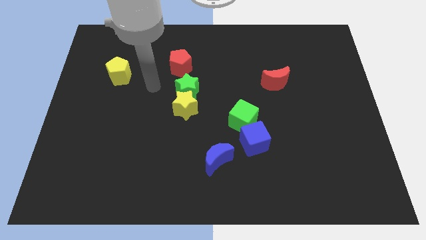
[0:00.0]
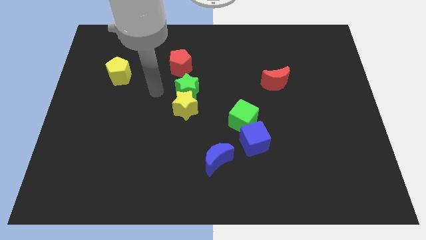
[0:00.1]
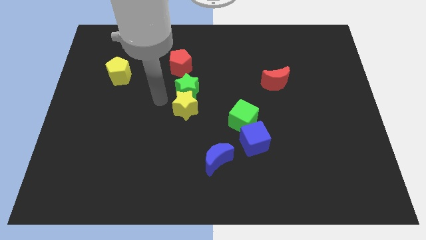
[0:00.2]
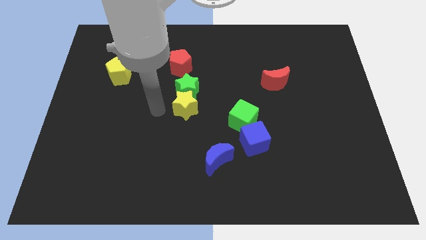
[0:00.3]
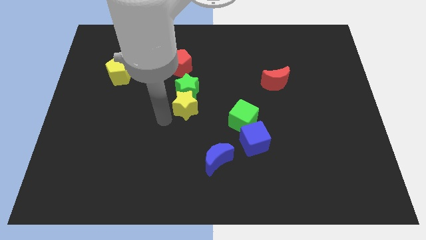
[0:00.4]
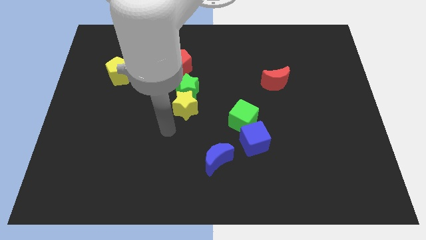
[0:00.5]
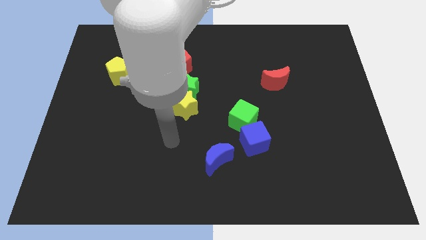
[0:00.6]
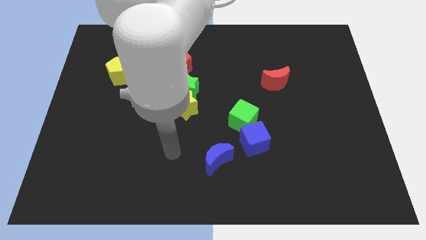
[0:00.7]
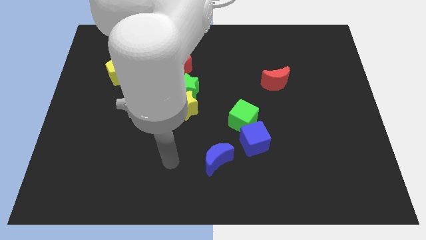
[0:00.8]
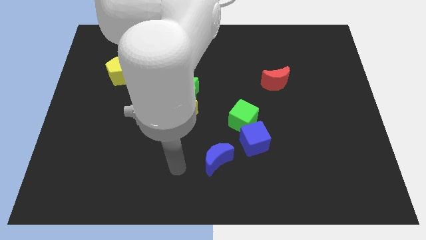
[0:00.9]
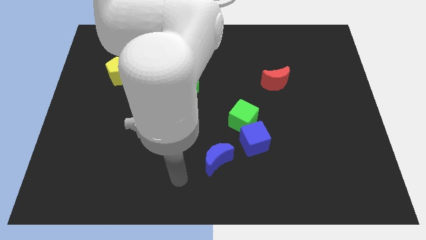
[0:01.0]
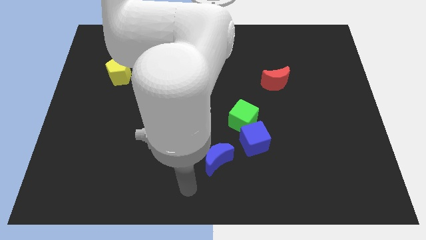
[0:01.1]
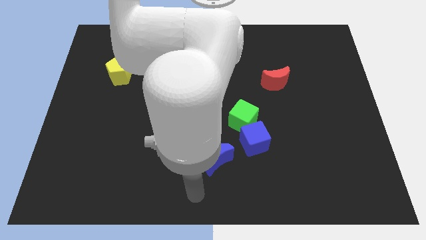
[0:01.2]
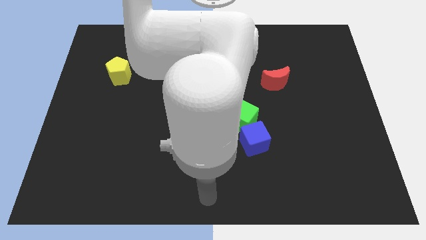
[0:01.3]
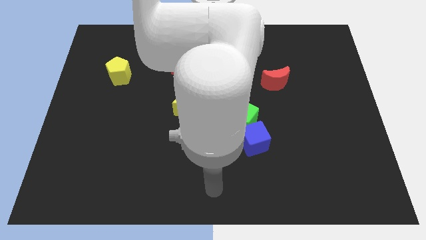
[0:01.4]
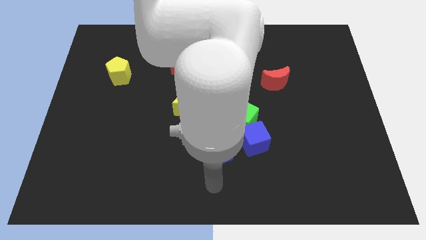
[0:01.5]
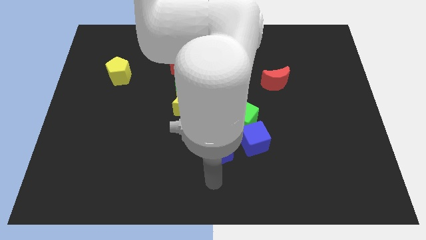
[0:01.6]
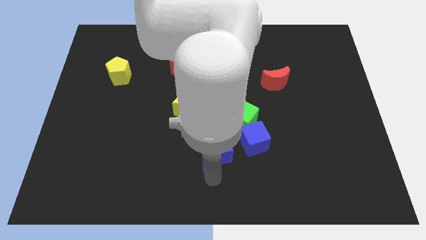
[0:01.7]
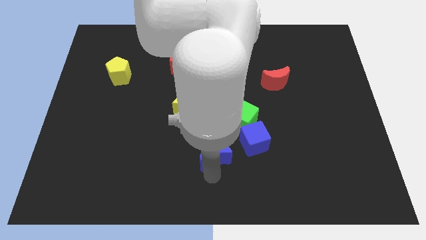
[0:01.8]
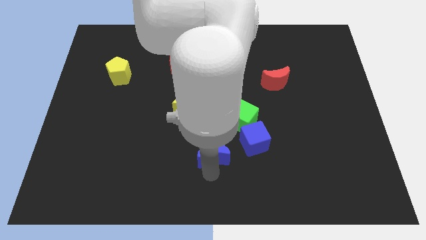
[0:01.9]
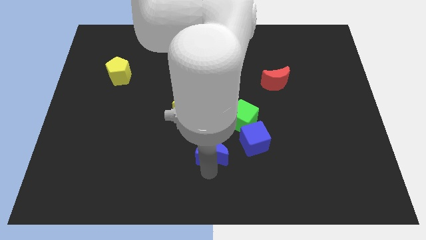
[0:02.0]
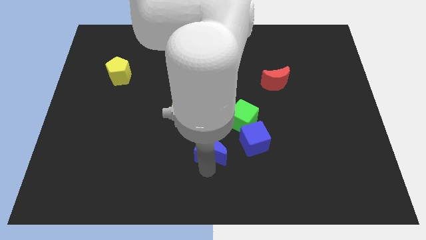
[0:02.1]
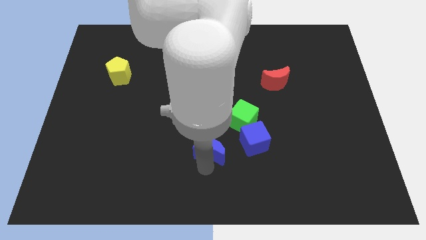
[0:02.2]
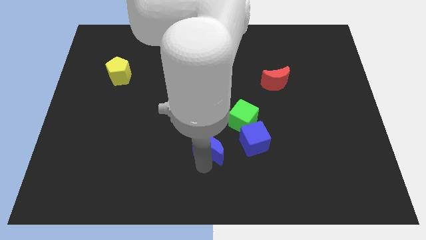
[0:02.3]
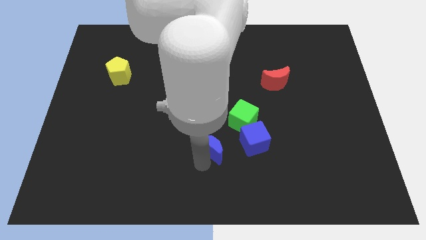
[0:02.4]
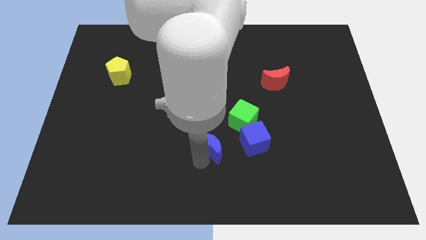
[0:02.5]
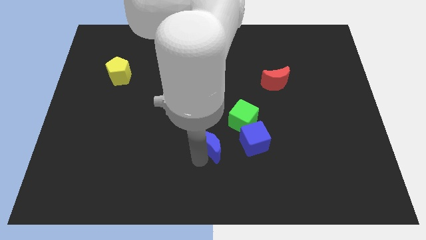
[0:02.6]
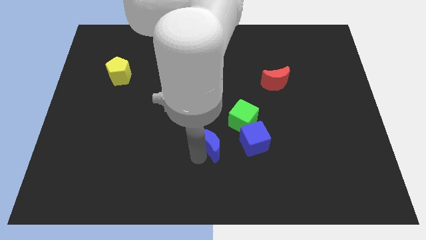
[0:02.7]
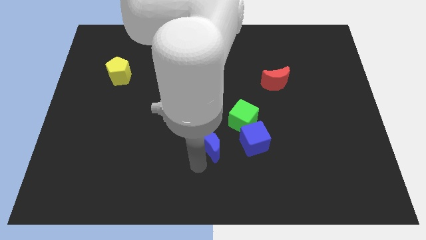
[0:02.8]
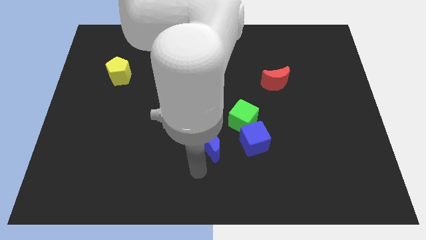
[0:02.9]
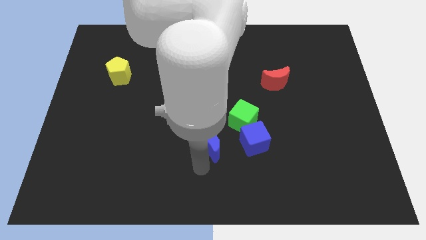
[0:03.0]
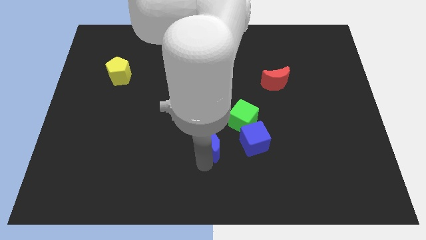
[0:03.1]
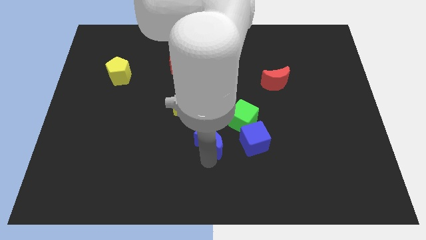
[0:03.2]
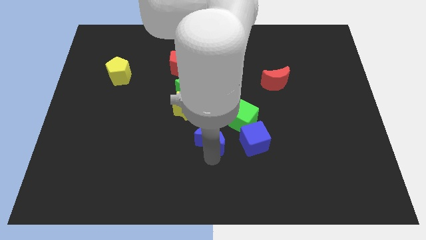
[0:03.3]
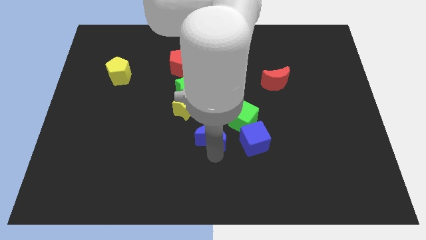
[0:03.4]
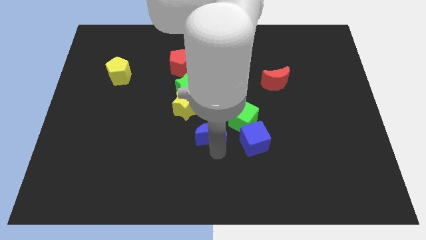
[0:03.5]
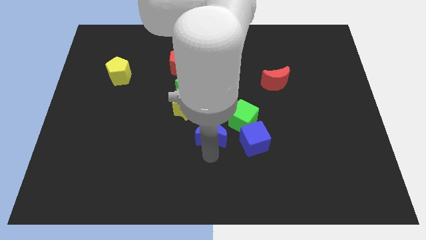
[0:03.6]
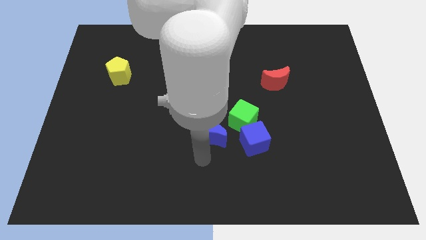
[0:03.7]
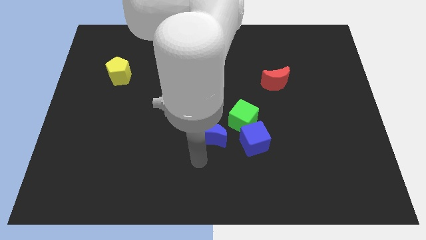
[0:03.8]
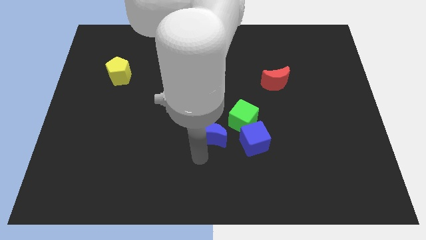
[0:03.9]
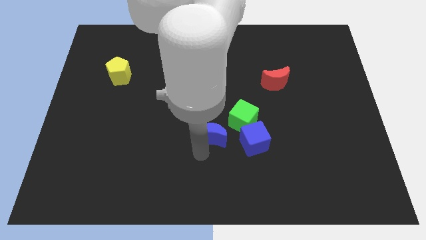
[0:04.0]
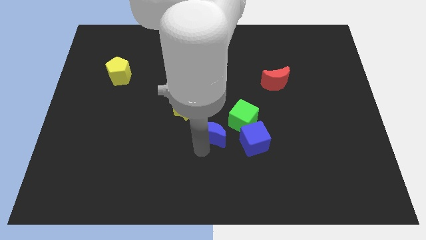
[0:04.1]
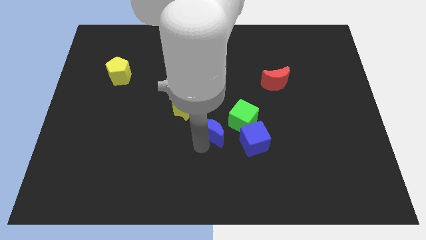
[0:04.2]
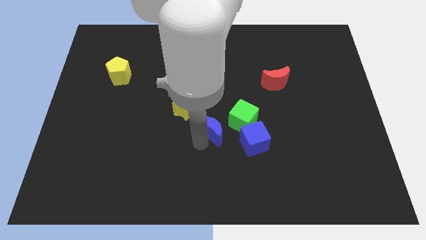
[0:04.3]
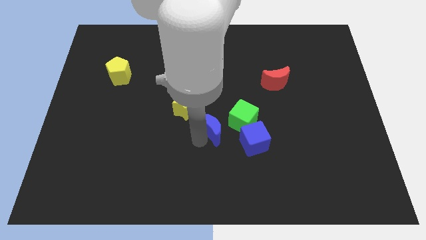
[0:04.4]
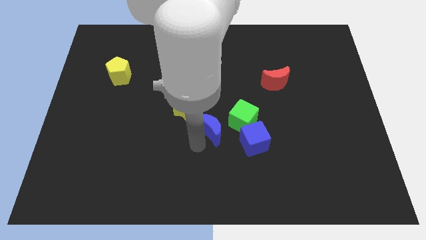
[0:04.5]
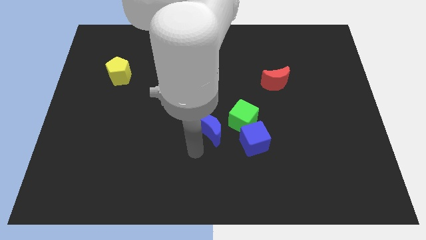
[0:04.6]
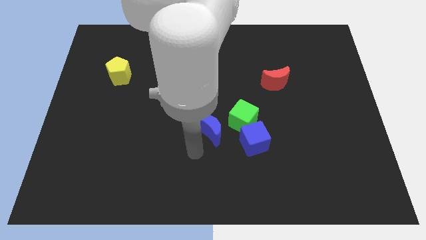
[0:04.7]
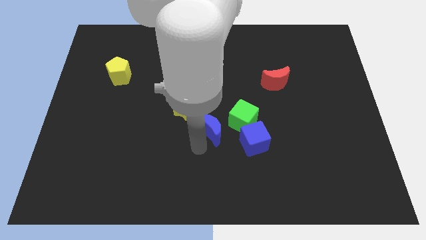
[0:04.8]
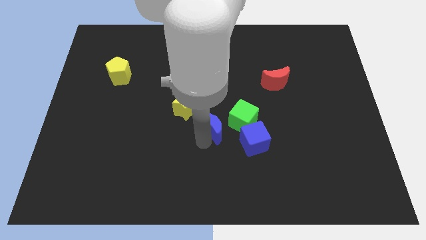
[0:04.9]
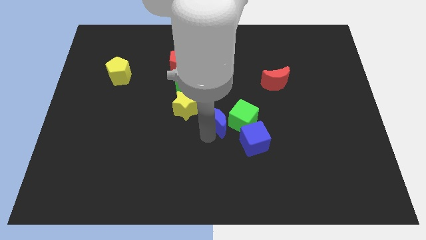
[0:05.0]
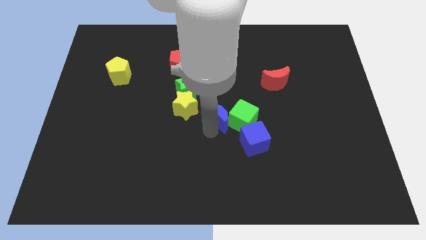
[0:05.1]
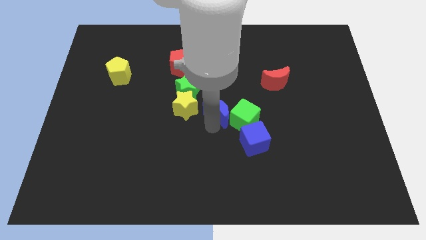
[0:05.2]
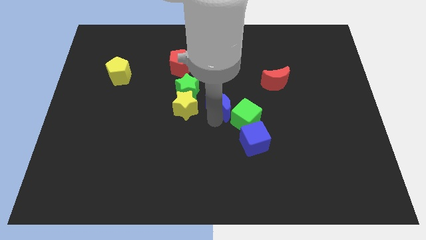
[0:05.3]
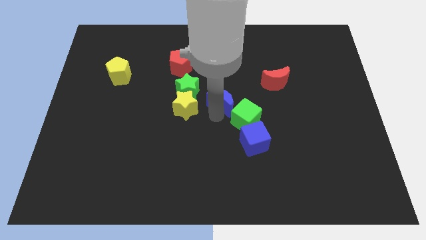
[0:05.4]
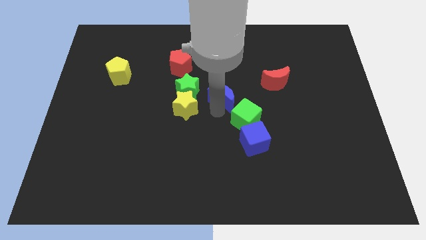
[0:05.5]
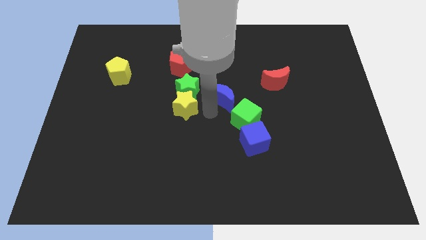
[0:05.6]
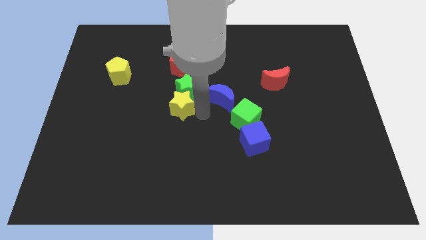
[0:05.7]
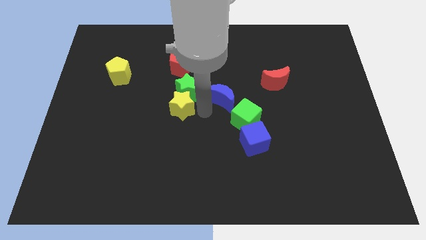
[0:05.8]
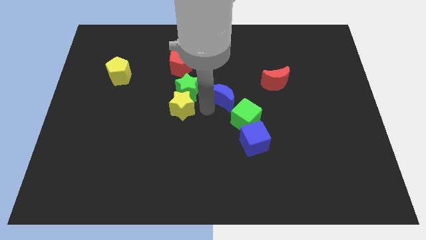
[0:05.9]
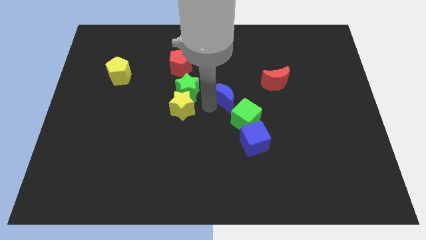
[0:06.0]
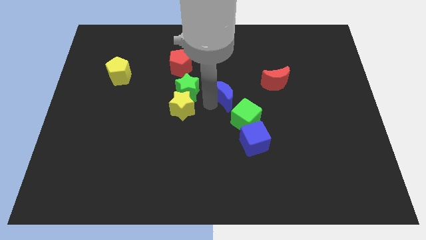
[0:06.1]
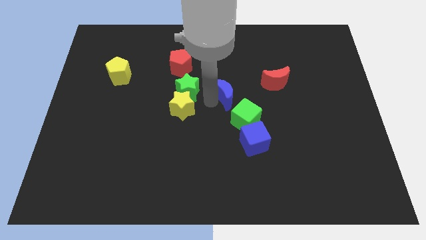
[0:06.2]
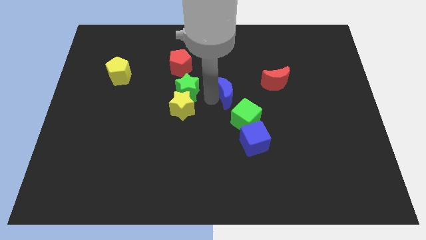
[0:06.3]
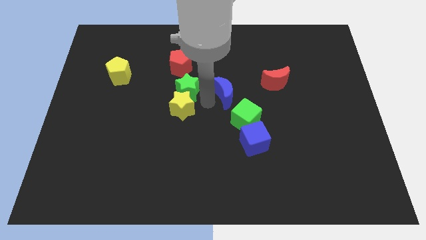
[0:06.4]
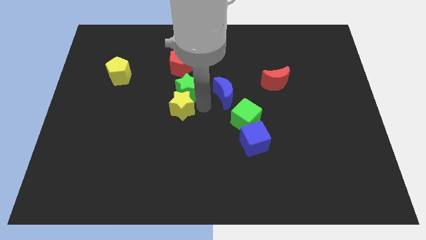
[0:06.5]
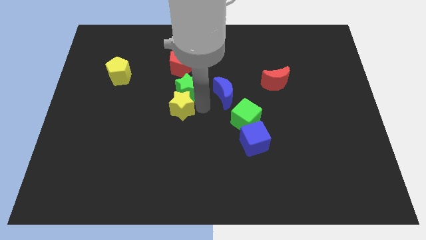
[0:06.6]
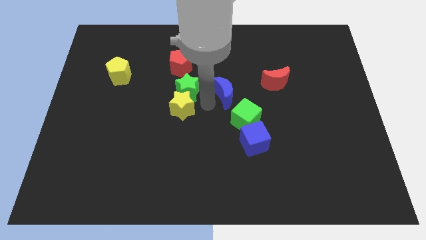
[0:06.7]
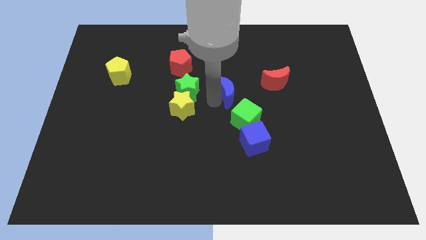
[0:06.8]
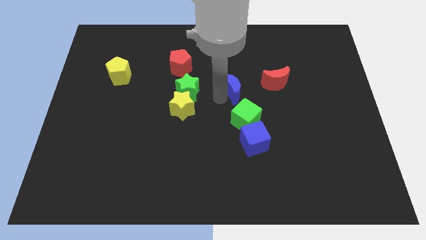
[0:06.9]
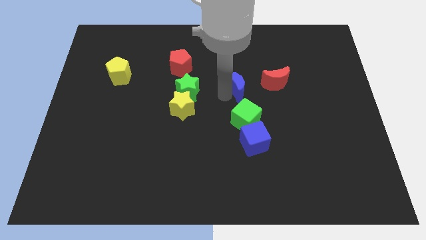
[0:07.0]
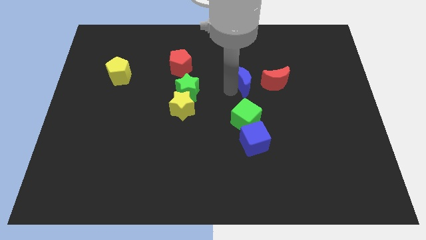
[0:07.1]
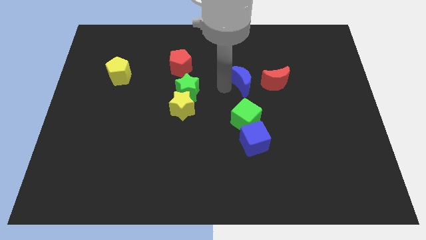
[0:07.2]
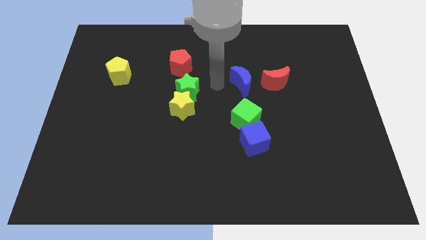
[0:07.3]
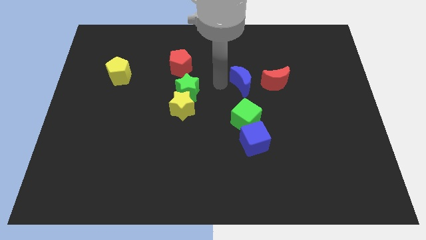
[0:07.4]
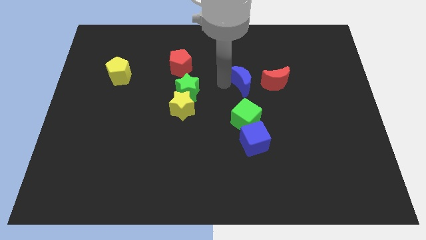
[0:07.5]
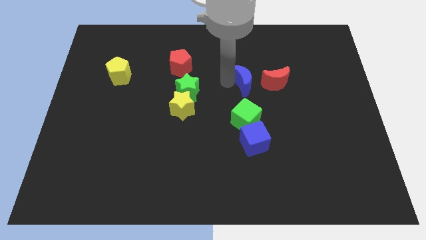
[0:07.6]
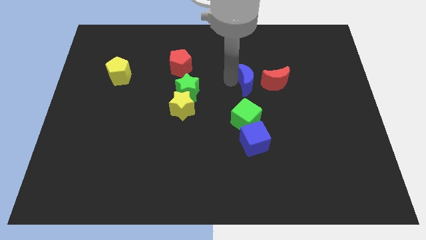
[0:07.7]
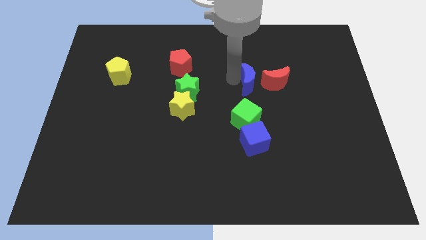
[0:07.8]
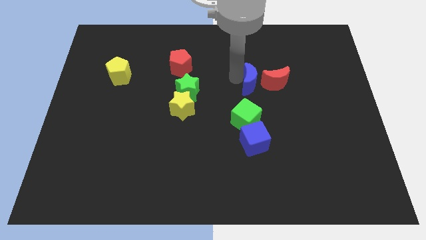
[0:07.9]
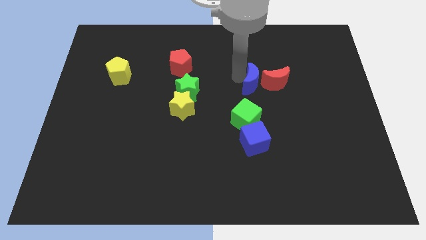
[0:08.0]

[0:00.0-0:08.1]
push the blue moon towards the red moon
